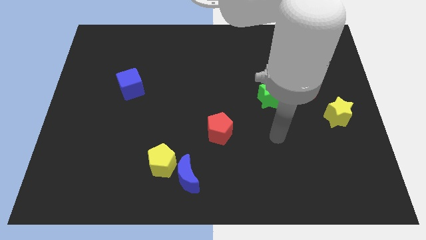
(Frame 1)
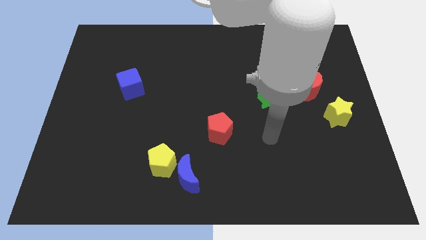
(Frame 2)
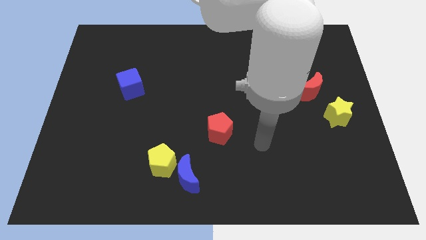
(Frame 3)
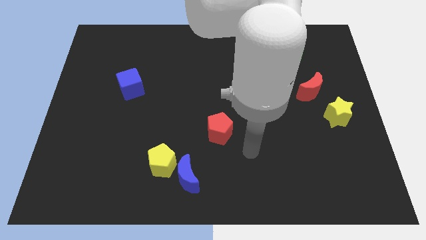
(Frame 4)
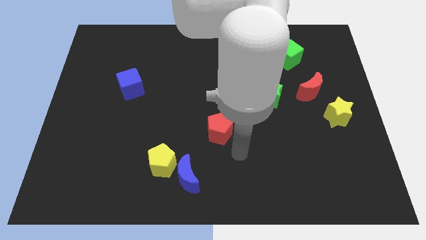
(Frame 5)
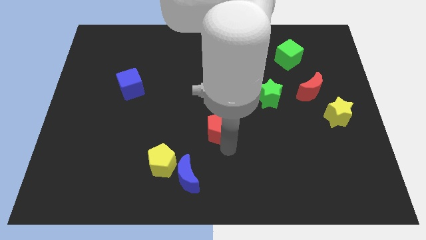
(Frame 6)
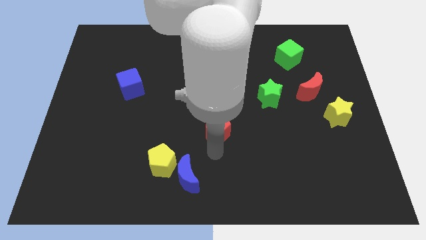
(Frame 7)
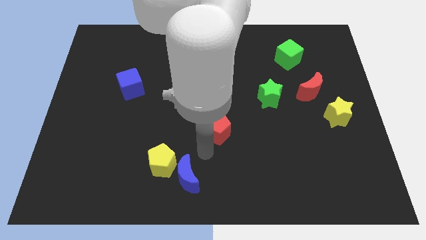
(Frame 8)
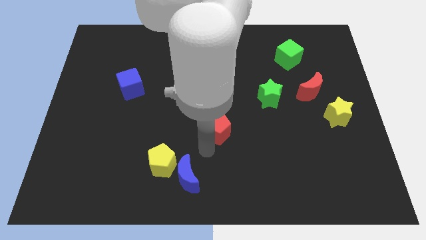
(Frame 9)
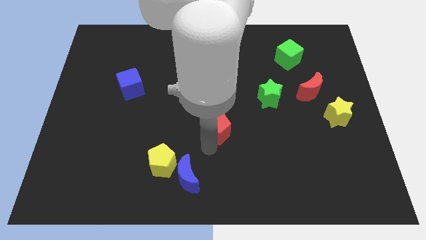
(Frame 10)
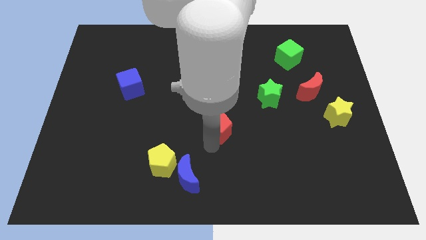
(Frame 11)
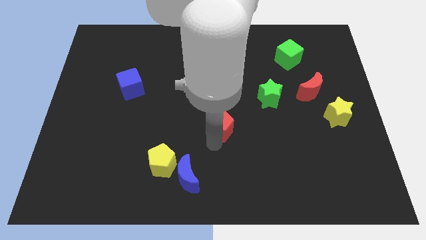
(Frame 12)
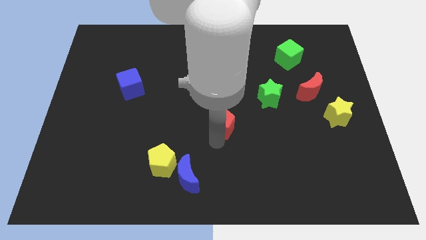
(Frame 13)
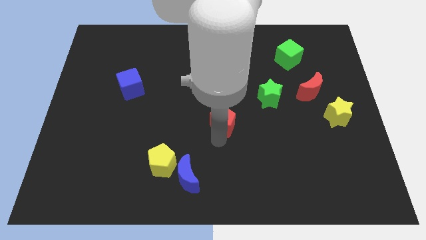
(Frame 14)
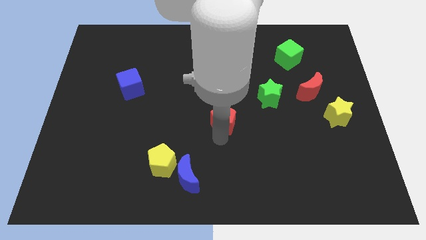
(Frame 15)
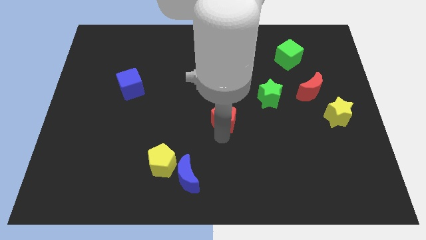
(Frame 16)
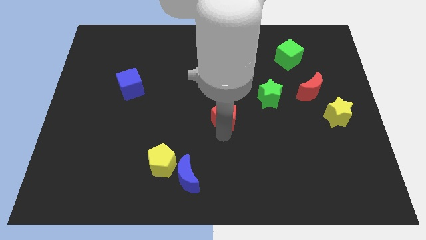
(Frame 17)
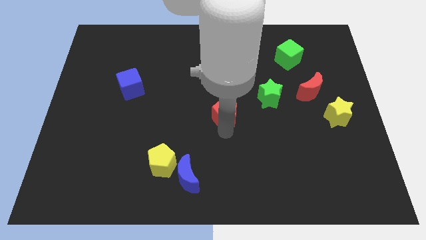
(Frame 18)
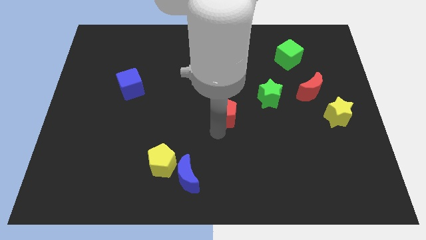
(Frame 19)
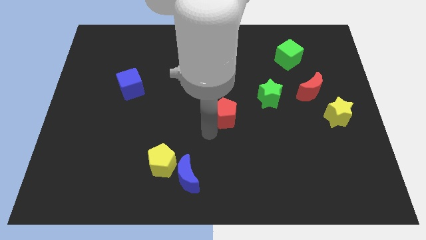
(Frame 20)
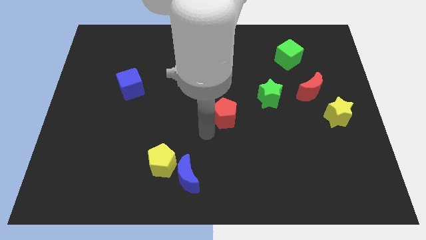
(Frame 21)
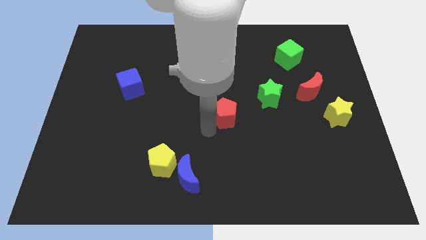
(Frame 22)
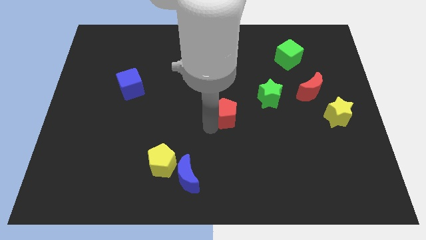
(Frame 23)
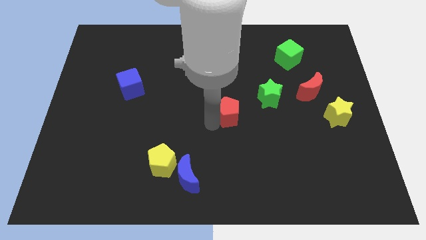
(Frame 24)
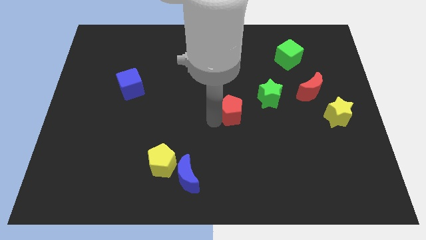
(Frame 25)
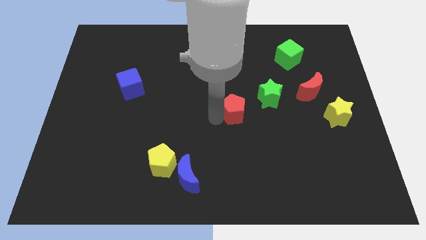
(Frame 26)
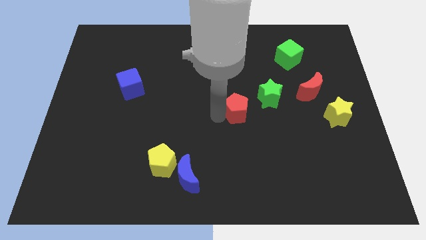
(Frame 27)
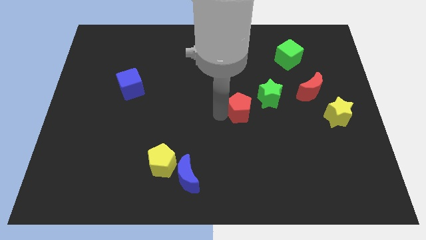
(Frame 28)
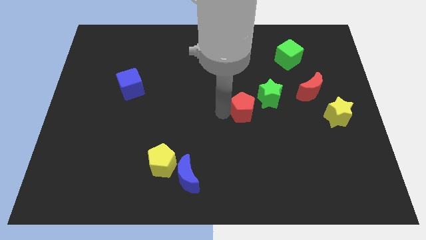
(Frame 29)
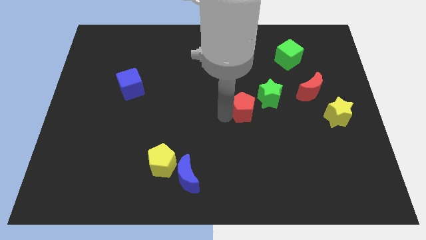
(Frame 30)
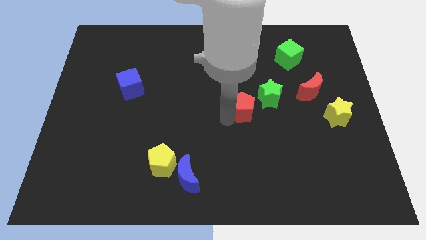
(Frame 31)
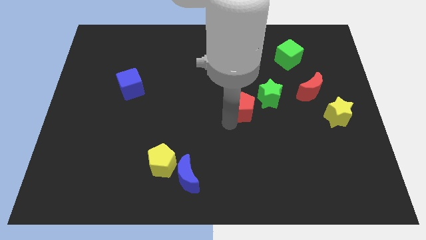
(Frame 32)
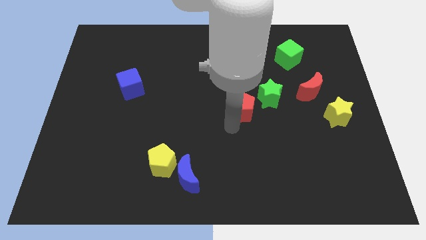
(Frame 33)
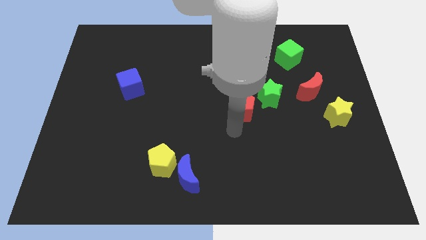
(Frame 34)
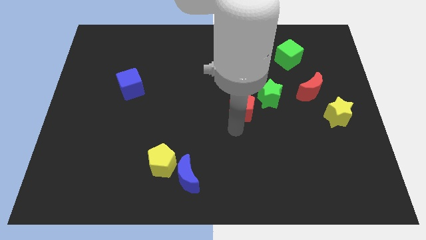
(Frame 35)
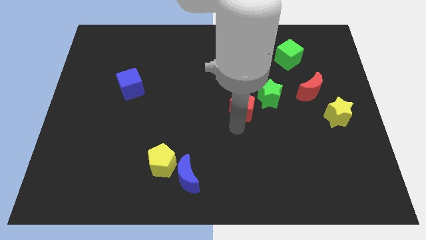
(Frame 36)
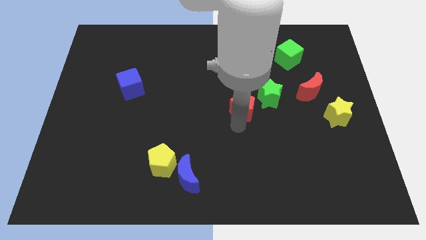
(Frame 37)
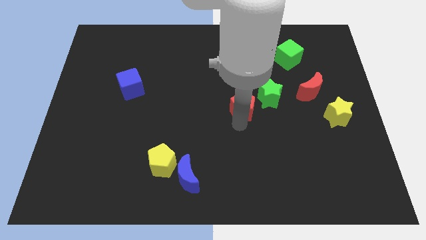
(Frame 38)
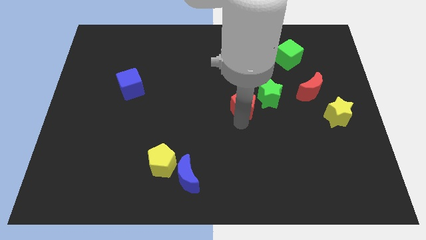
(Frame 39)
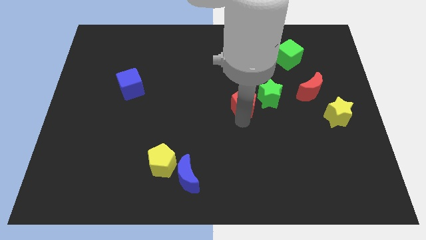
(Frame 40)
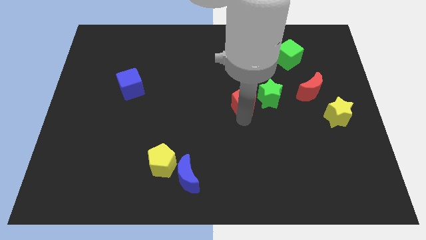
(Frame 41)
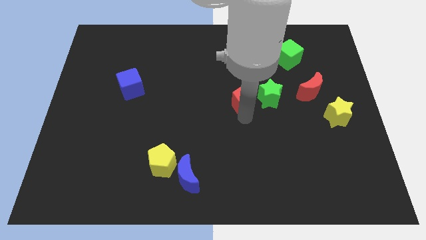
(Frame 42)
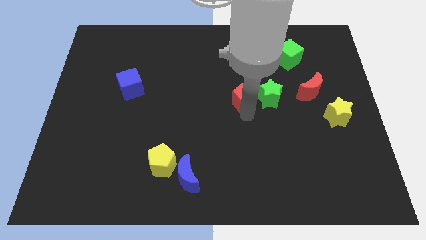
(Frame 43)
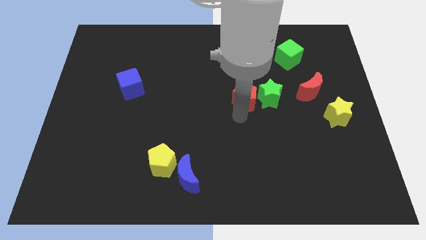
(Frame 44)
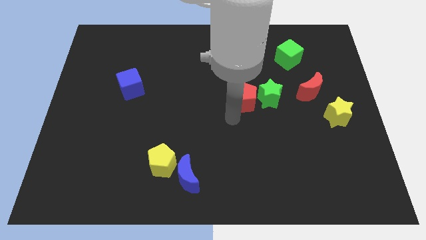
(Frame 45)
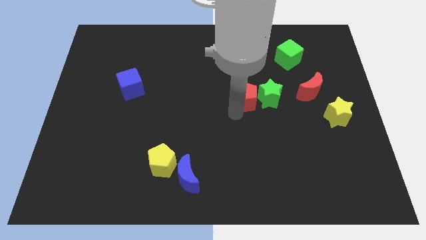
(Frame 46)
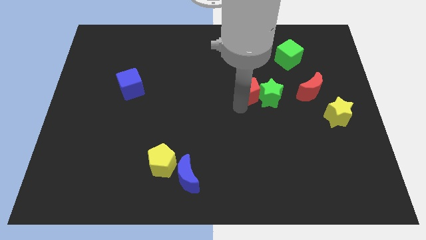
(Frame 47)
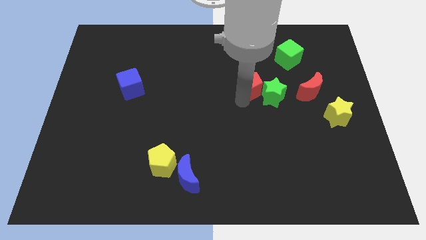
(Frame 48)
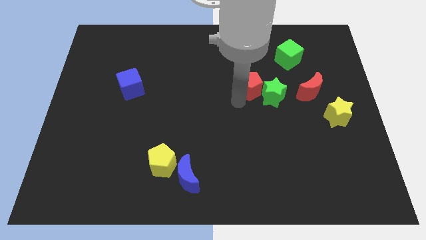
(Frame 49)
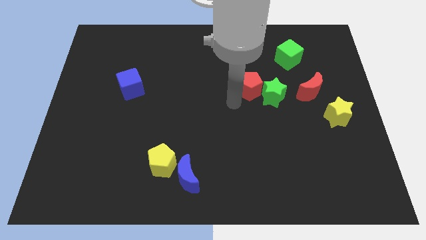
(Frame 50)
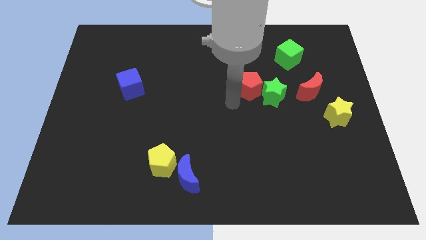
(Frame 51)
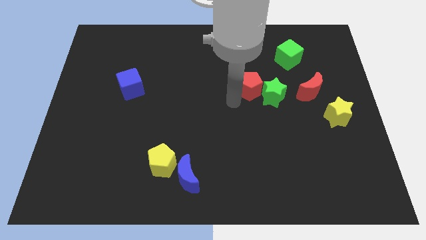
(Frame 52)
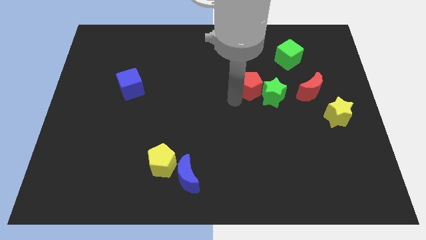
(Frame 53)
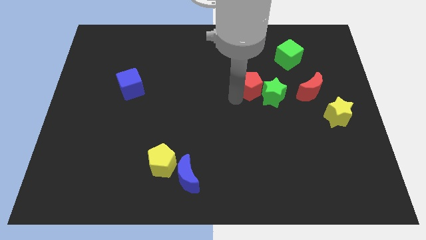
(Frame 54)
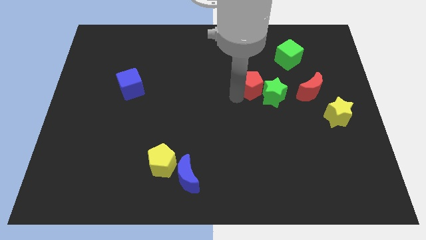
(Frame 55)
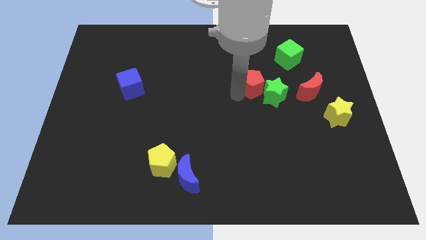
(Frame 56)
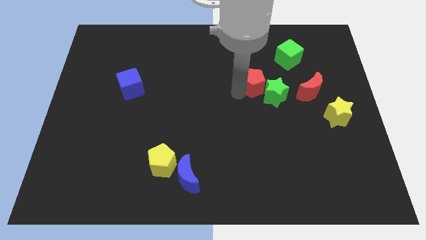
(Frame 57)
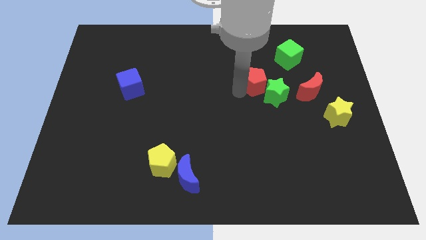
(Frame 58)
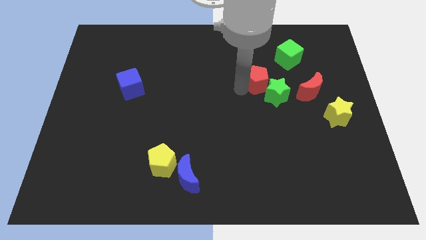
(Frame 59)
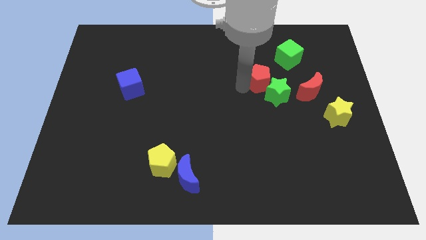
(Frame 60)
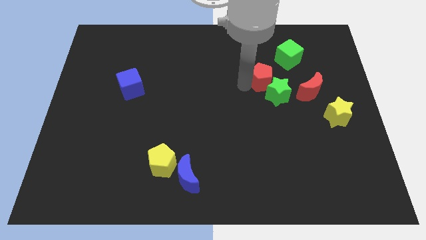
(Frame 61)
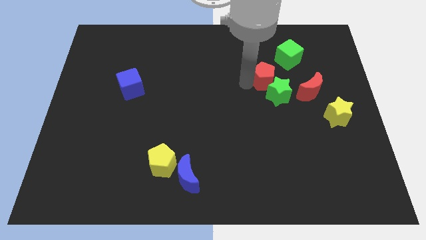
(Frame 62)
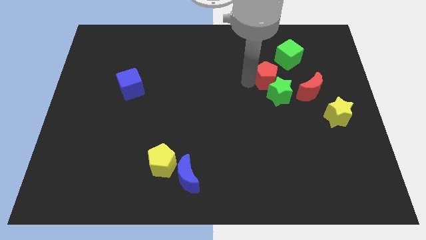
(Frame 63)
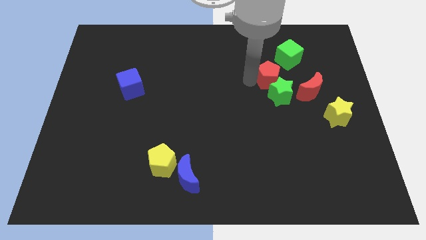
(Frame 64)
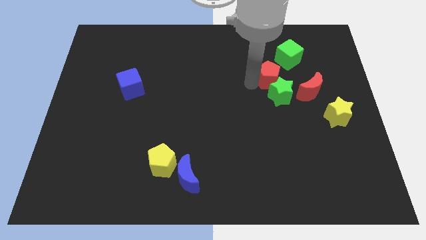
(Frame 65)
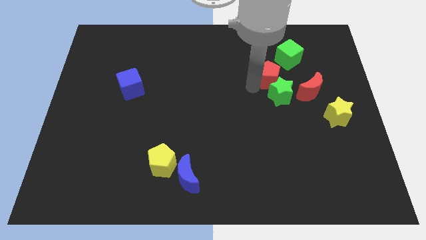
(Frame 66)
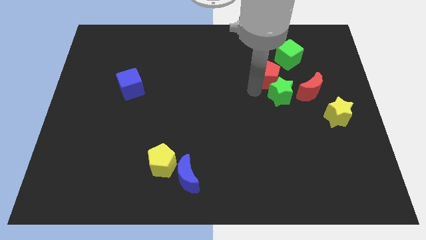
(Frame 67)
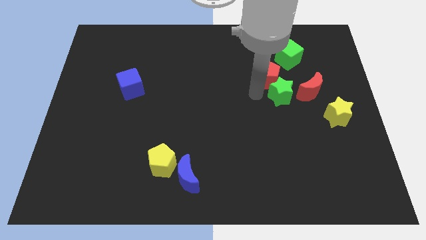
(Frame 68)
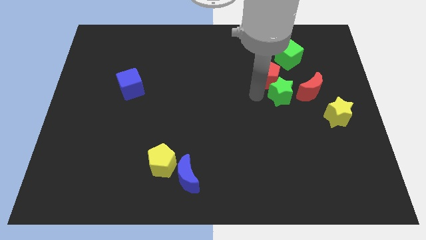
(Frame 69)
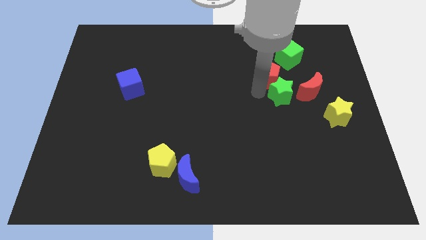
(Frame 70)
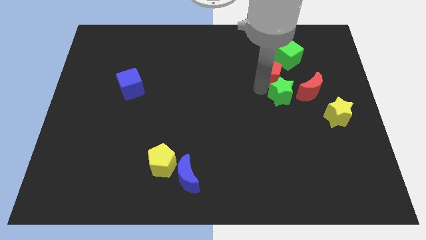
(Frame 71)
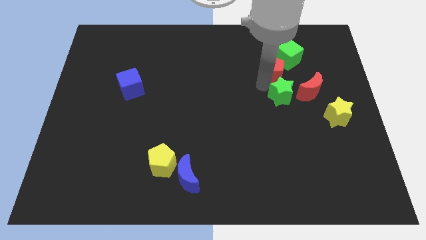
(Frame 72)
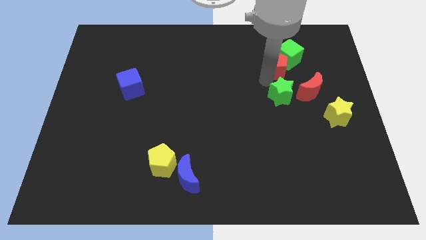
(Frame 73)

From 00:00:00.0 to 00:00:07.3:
move the red pentagon close to the green cube
